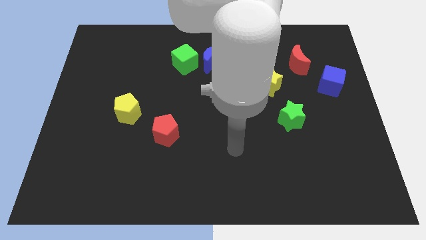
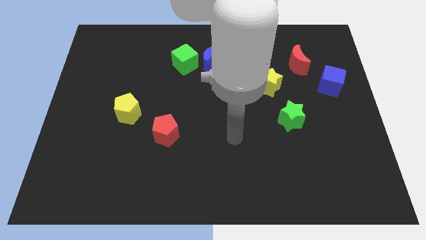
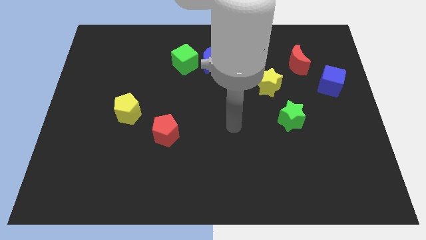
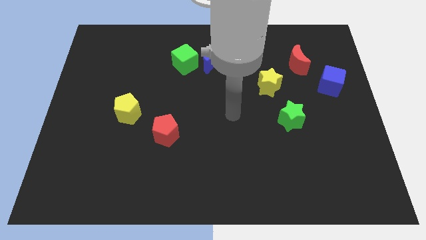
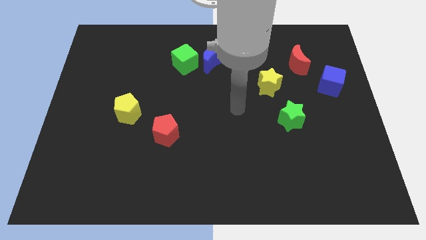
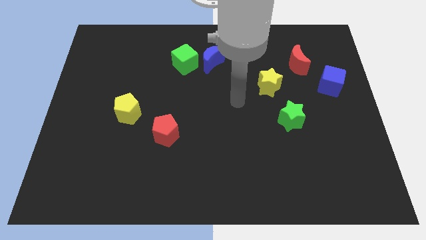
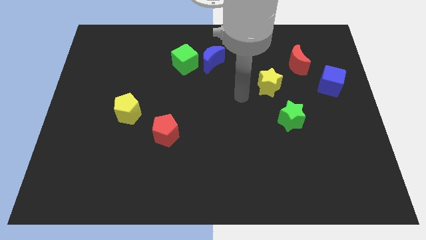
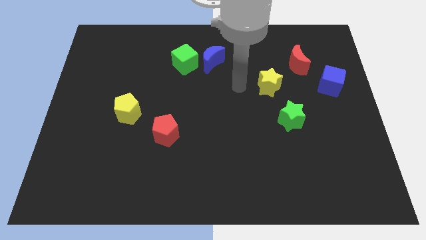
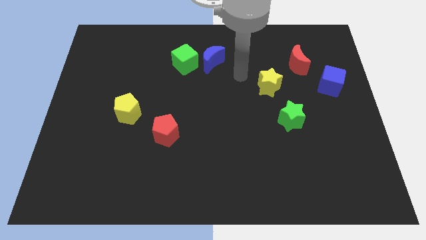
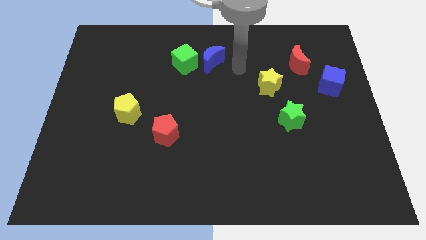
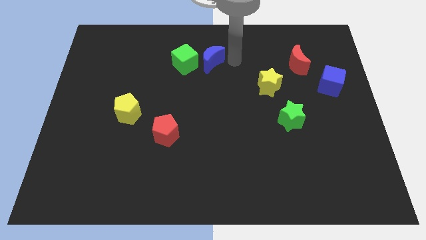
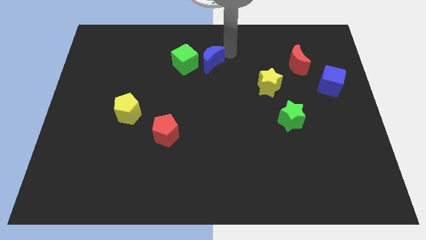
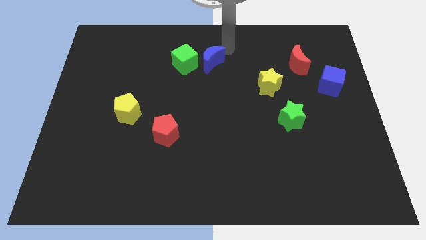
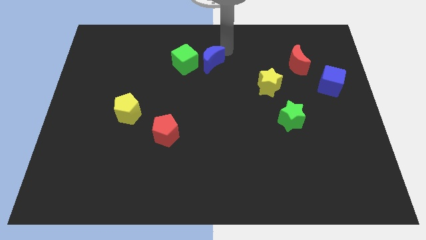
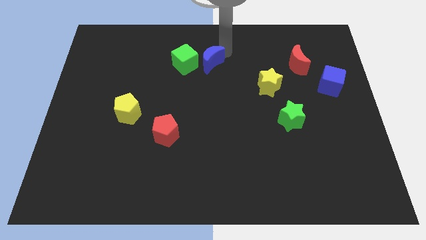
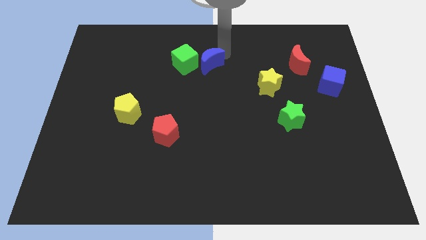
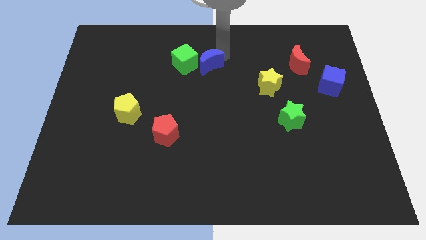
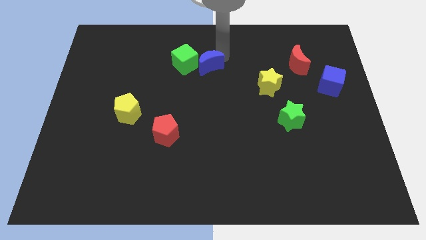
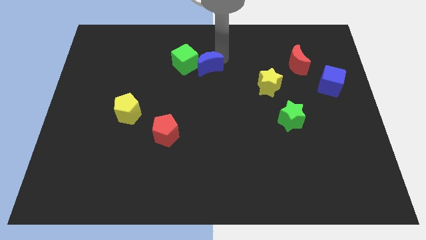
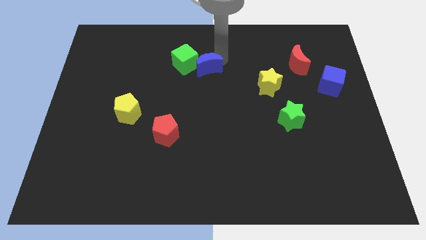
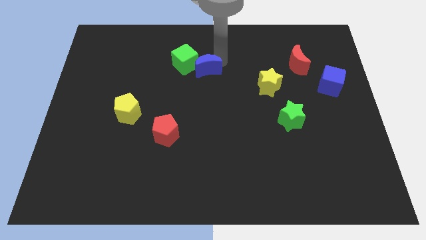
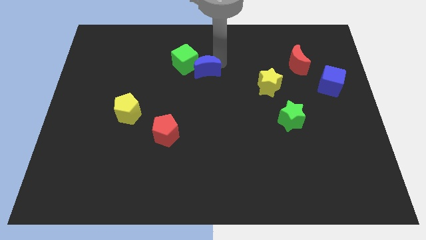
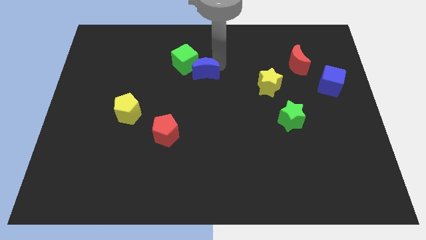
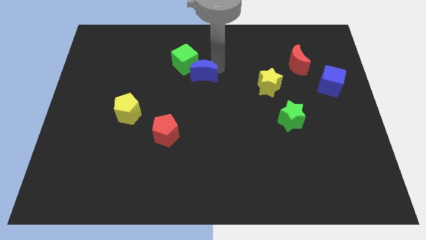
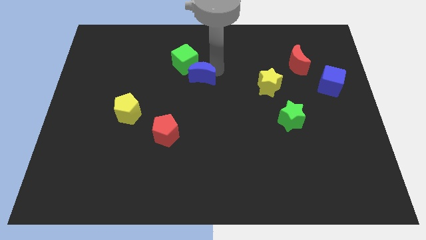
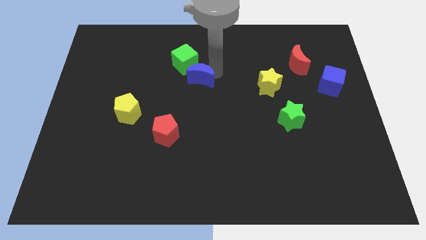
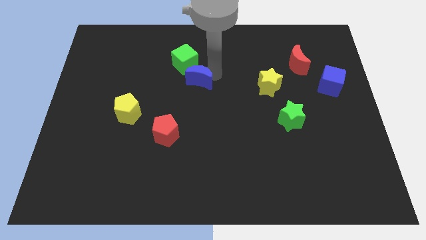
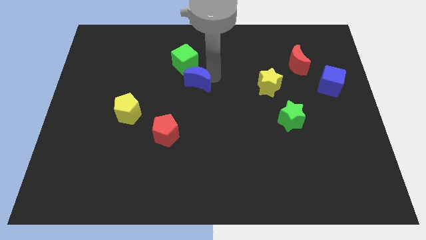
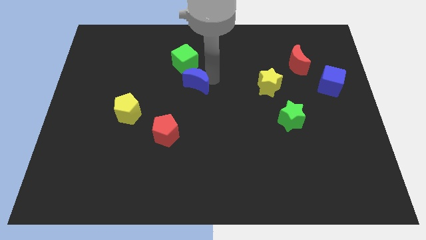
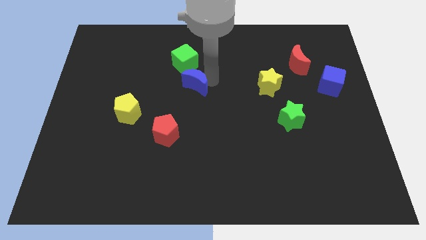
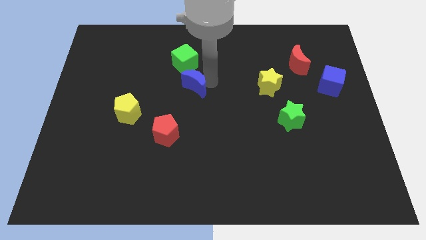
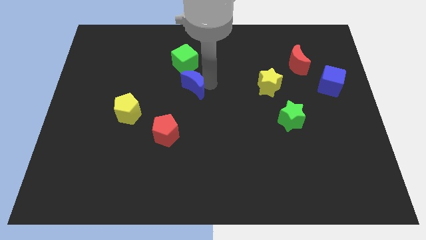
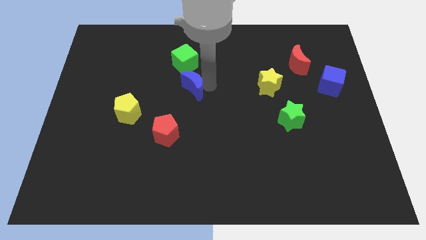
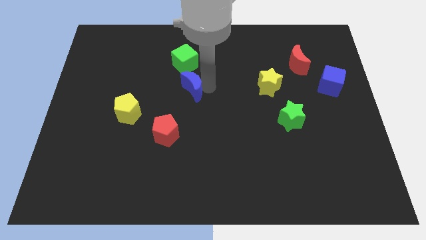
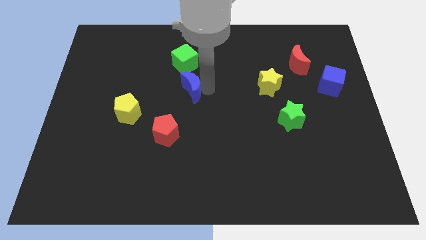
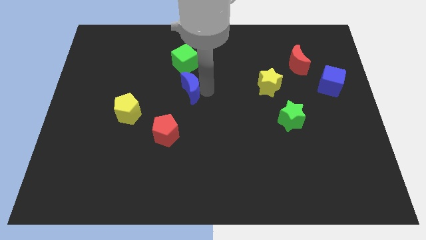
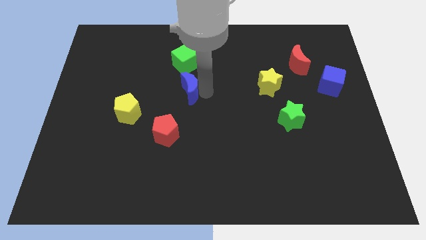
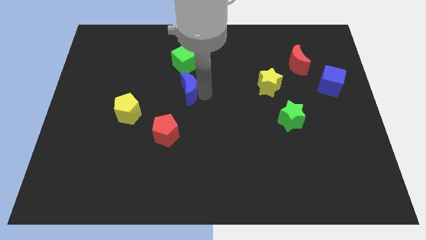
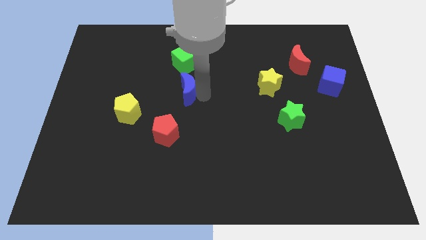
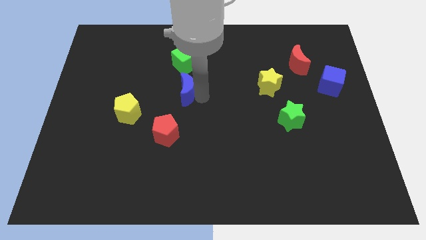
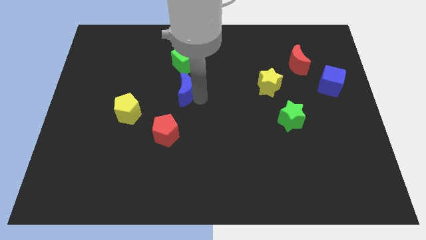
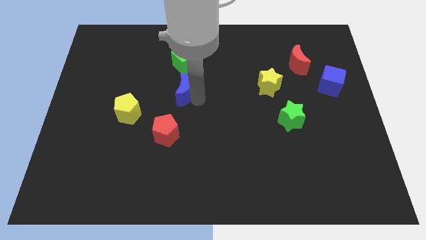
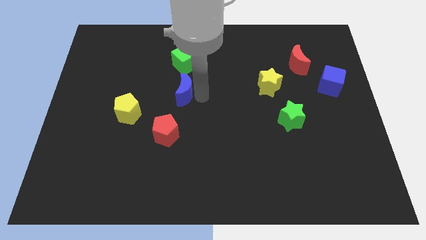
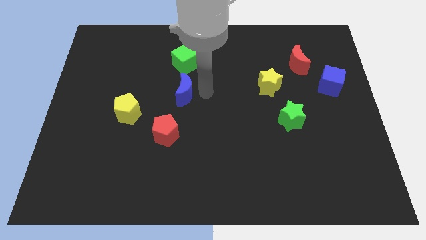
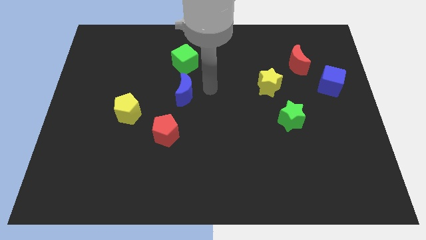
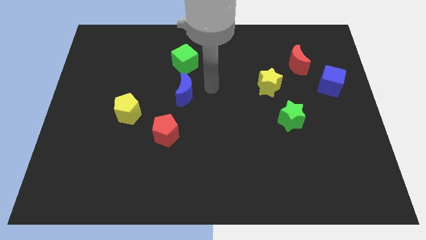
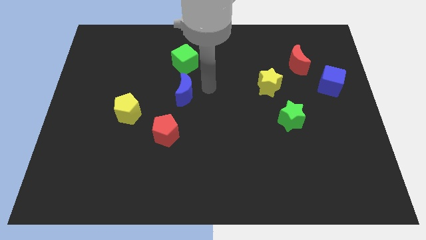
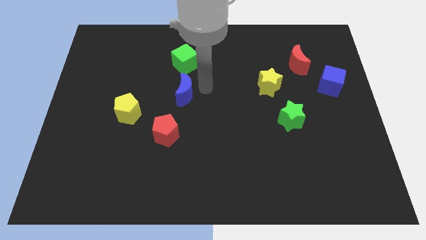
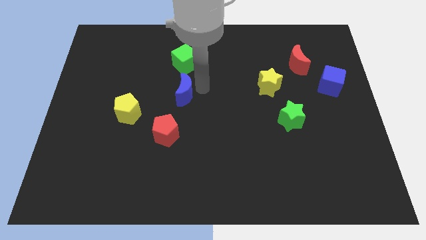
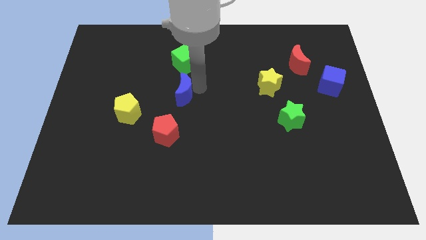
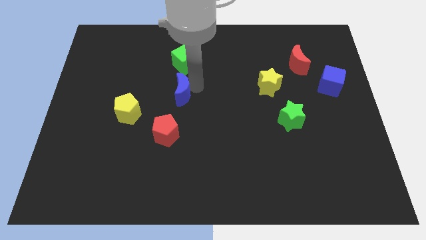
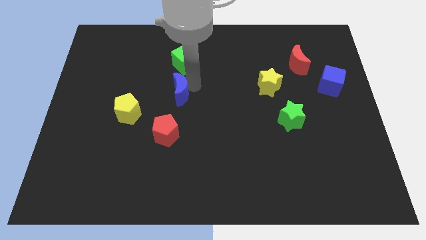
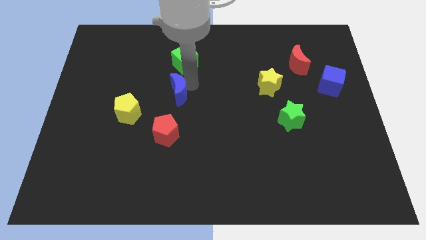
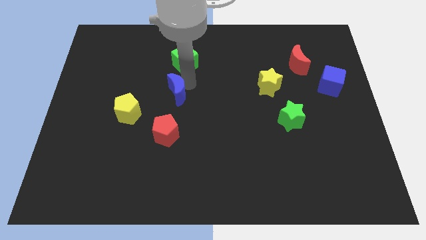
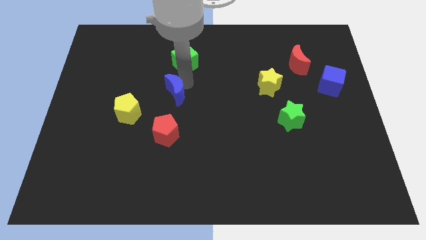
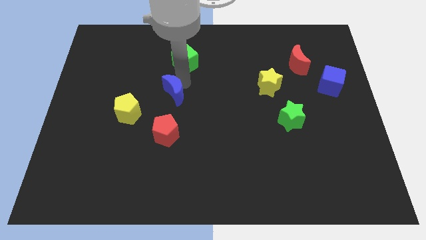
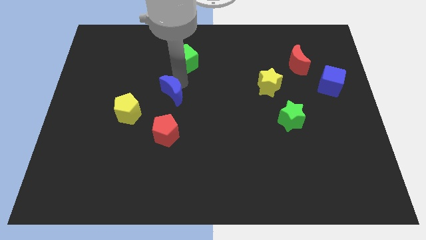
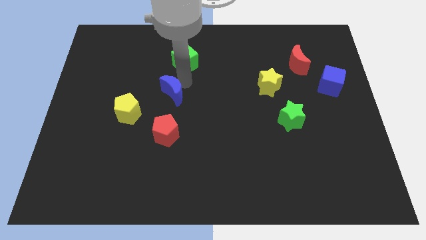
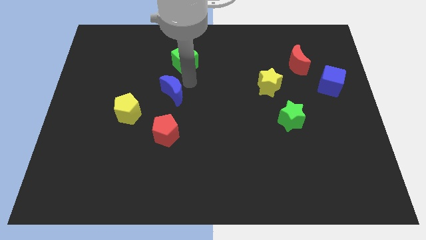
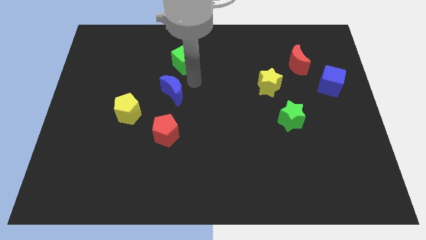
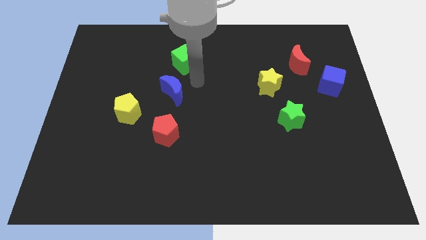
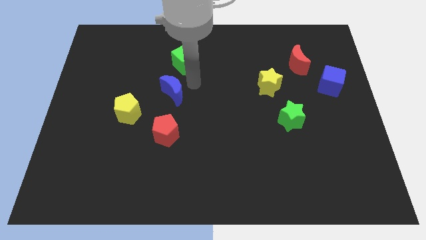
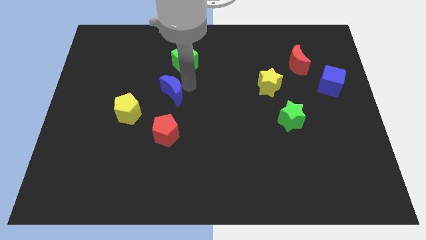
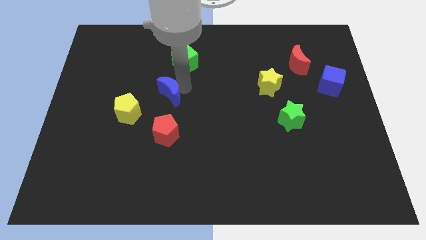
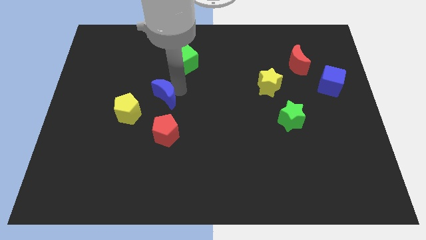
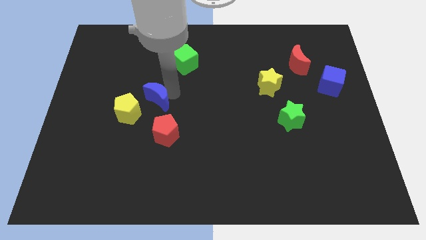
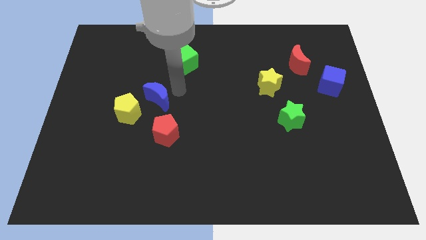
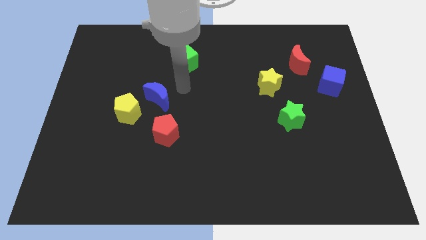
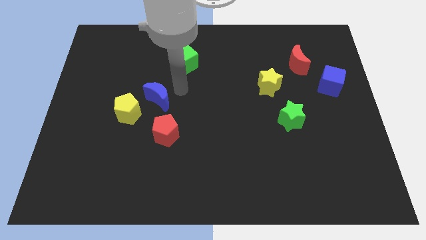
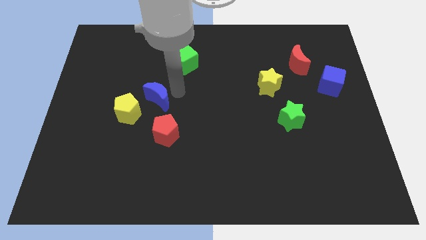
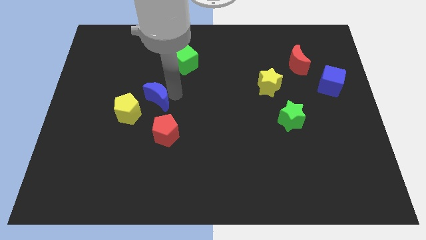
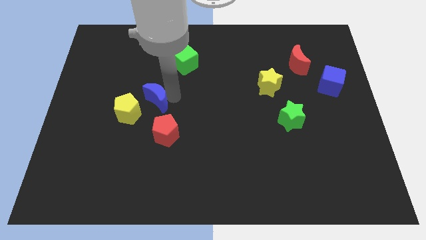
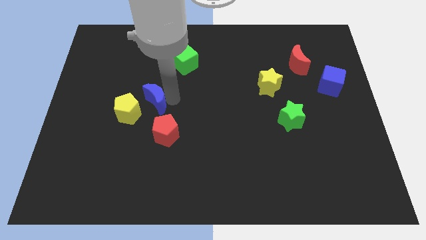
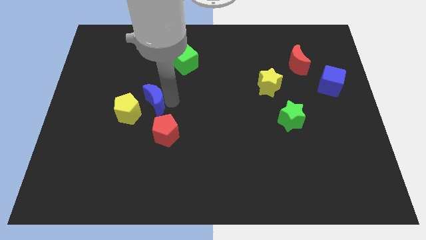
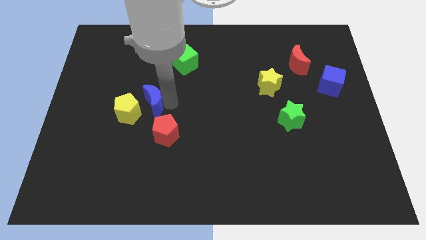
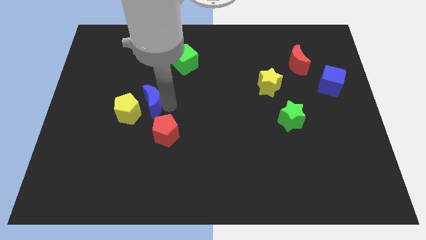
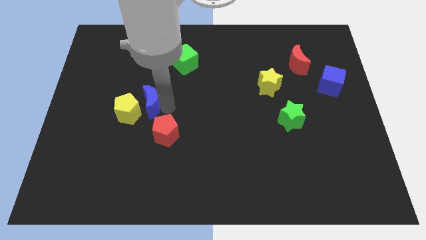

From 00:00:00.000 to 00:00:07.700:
push the blue moon towards the yellow pentagon
